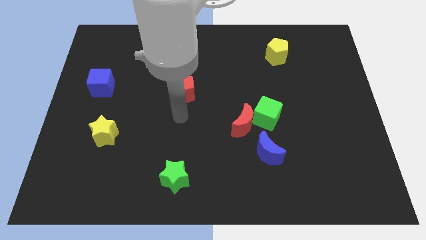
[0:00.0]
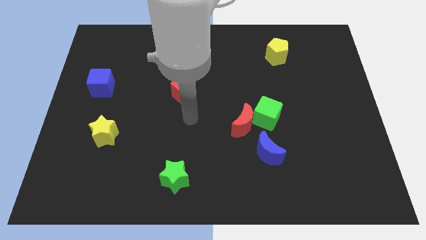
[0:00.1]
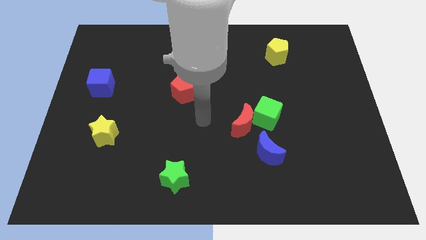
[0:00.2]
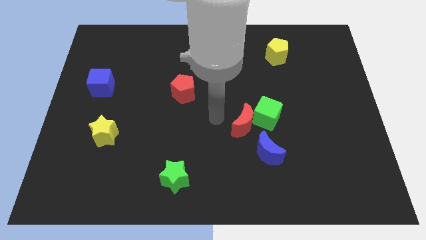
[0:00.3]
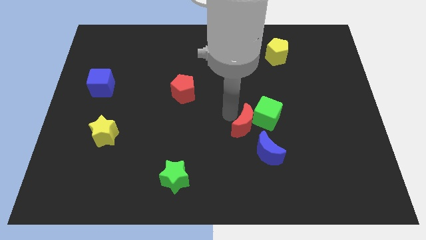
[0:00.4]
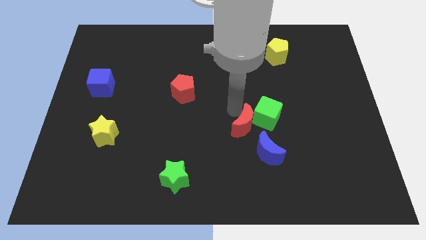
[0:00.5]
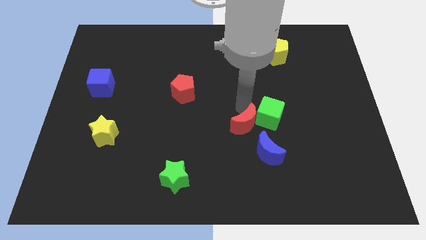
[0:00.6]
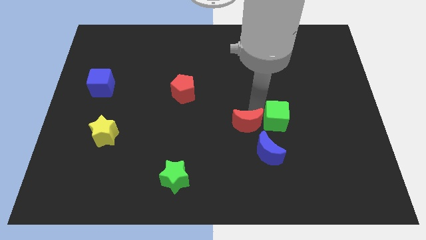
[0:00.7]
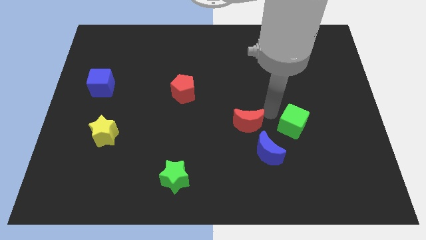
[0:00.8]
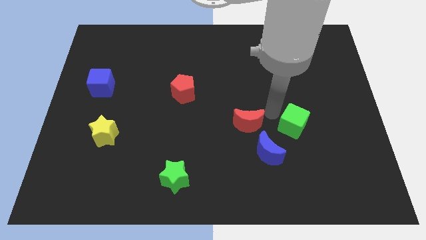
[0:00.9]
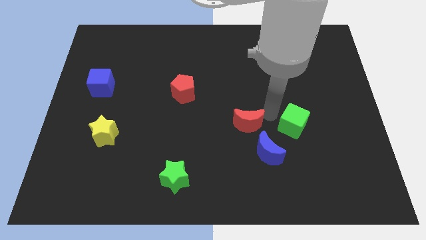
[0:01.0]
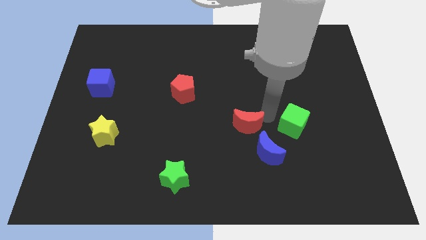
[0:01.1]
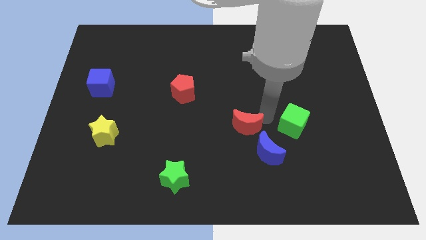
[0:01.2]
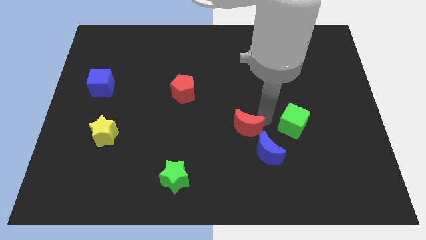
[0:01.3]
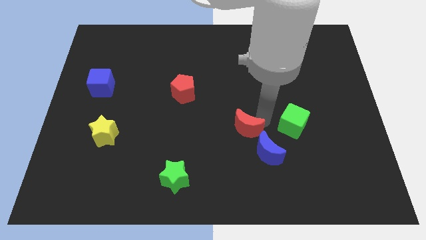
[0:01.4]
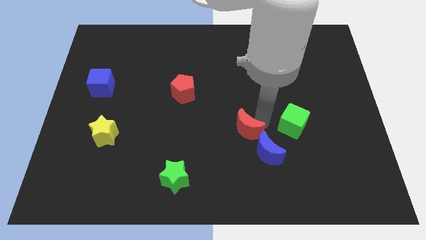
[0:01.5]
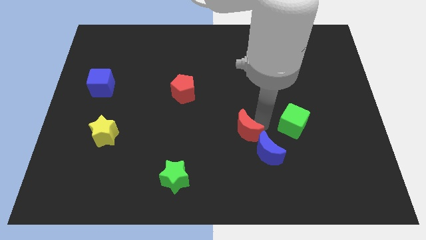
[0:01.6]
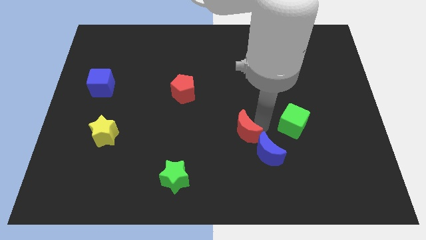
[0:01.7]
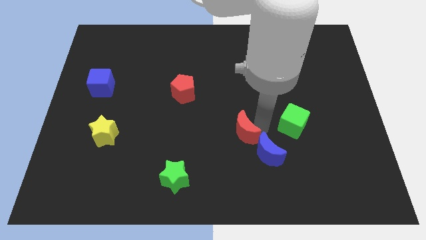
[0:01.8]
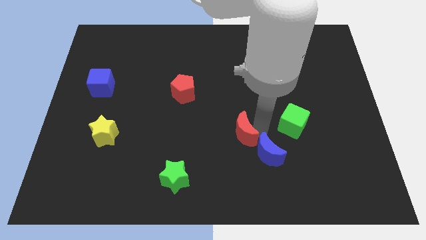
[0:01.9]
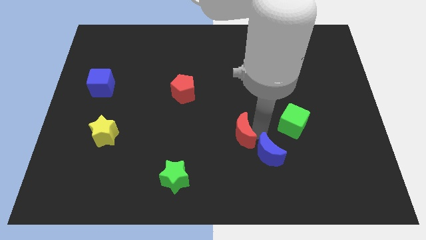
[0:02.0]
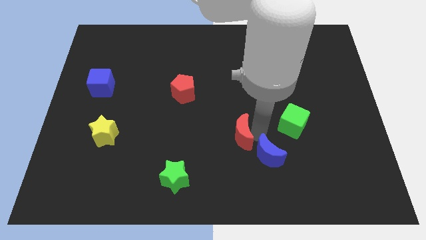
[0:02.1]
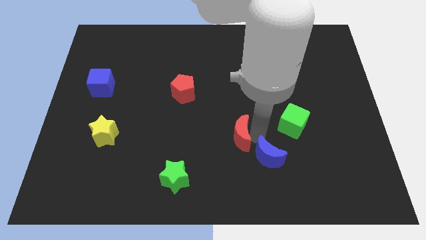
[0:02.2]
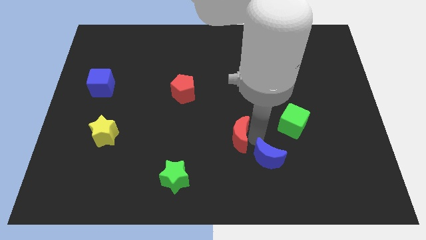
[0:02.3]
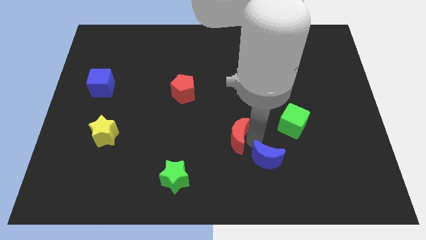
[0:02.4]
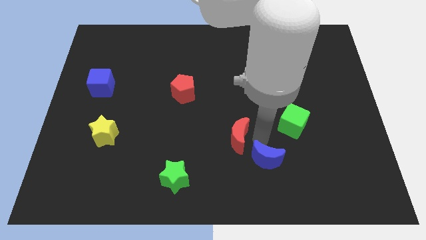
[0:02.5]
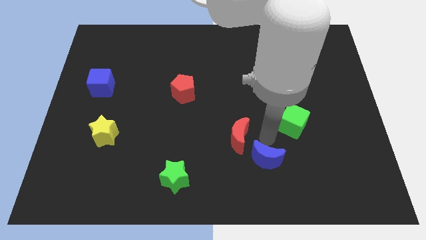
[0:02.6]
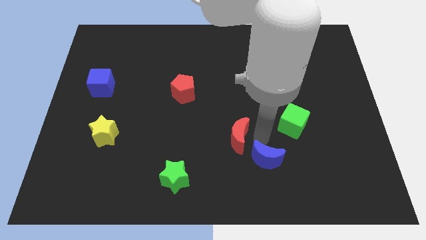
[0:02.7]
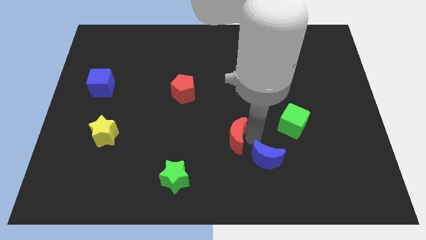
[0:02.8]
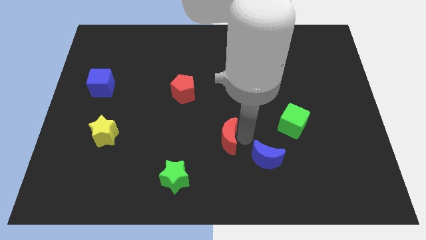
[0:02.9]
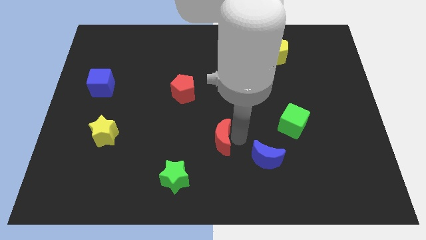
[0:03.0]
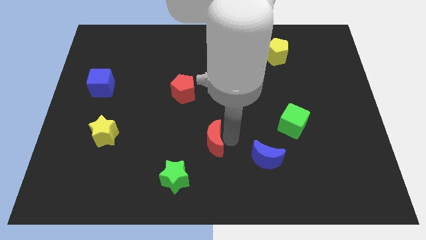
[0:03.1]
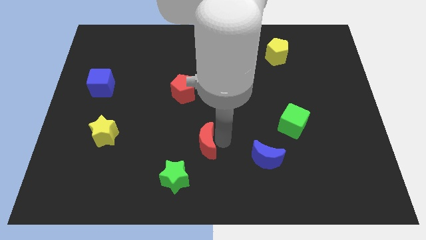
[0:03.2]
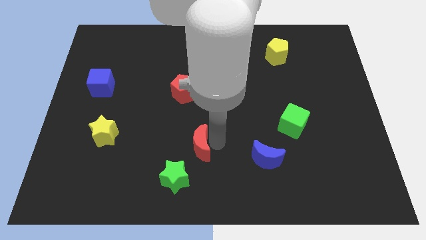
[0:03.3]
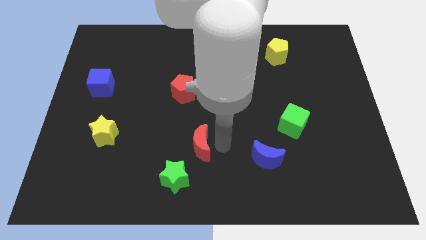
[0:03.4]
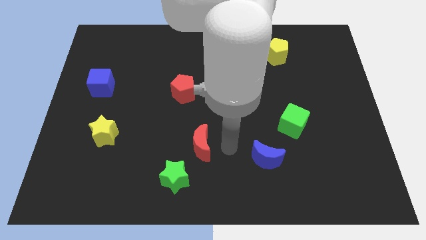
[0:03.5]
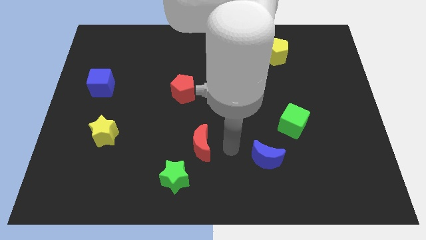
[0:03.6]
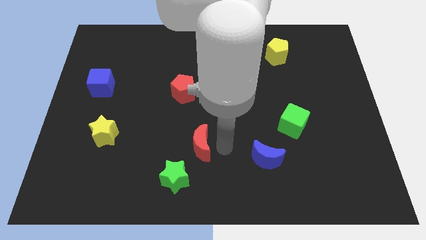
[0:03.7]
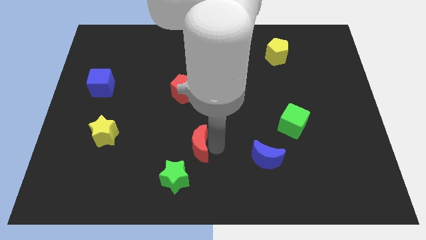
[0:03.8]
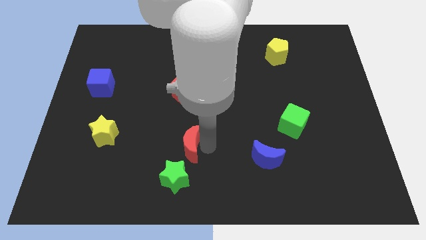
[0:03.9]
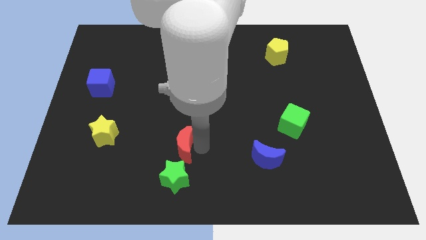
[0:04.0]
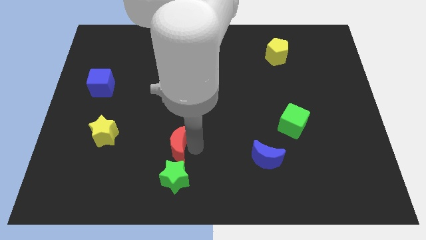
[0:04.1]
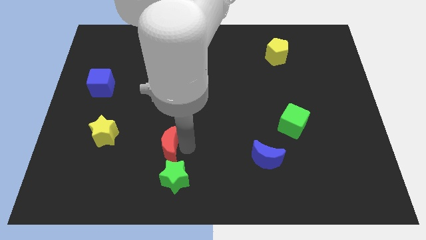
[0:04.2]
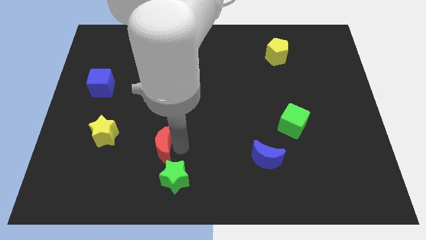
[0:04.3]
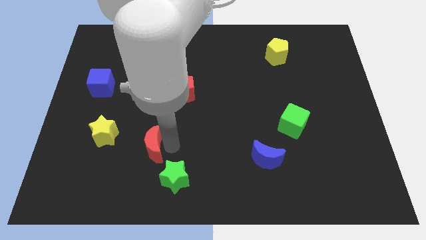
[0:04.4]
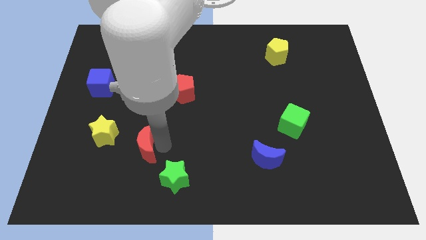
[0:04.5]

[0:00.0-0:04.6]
slide the red moon diagonally down and to the right of the yellow star

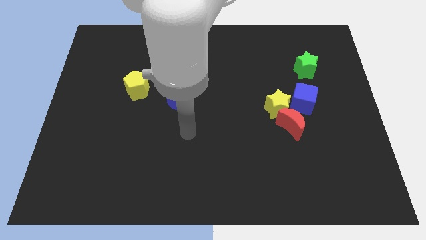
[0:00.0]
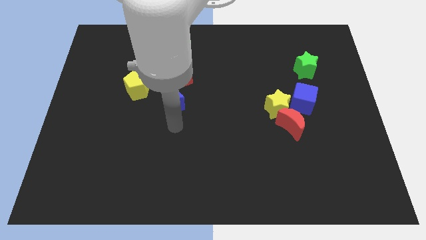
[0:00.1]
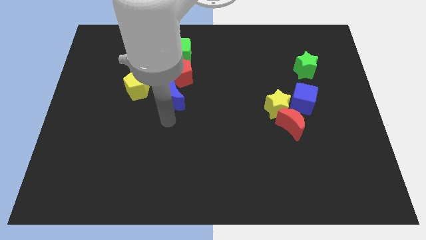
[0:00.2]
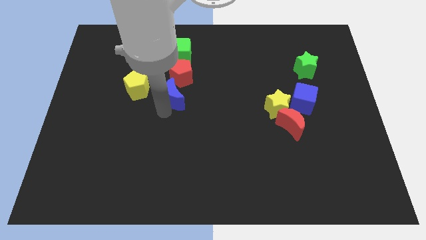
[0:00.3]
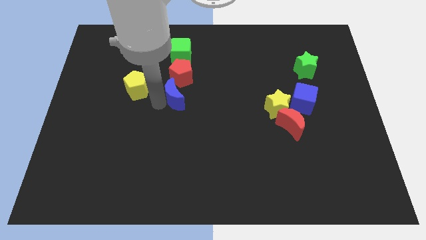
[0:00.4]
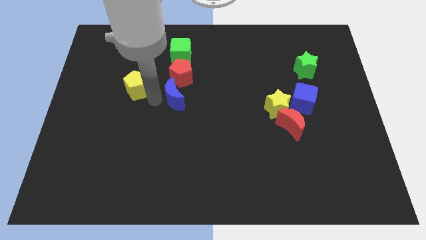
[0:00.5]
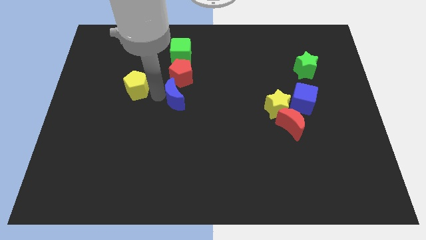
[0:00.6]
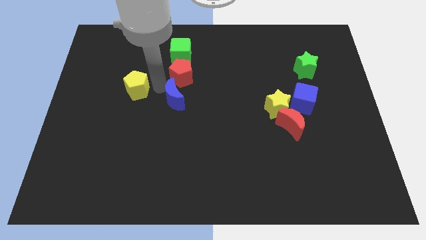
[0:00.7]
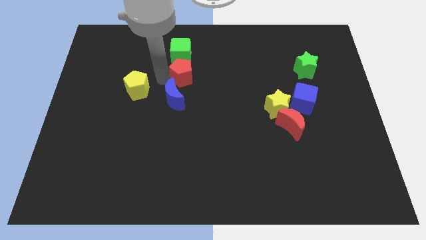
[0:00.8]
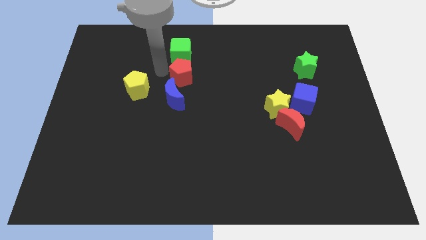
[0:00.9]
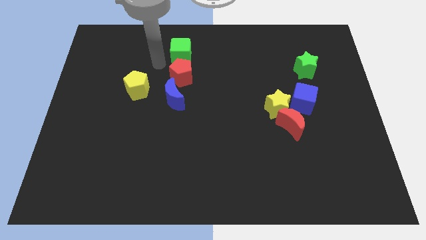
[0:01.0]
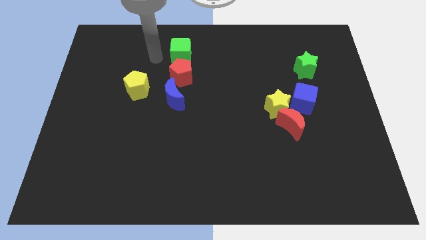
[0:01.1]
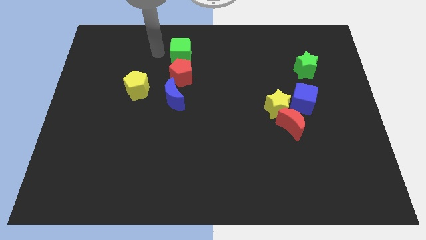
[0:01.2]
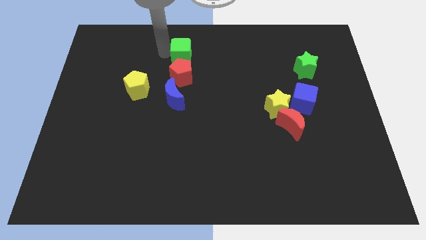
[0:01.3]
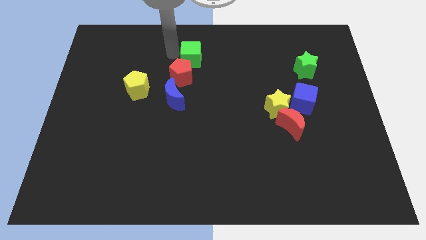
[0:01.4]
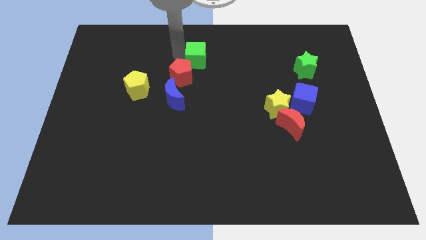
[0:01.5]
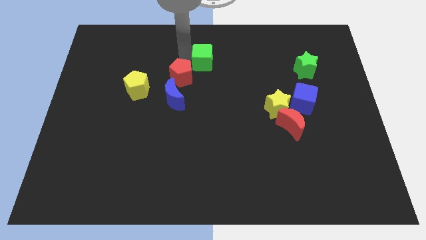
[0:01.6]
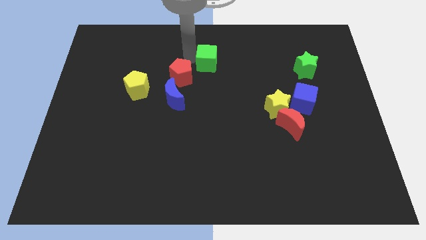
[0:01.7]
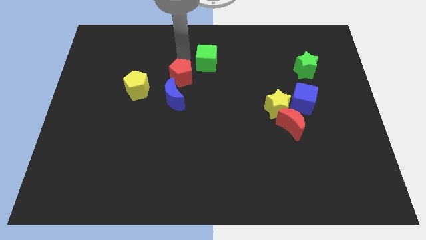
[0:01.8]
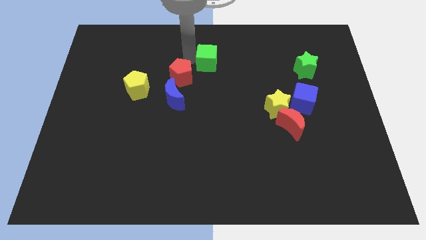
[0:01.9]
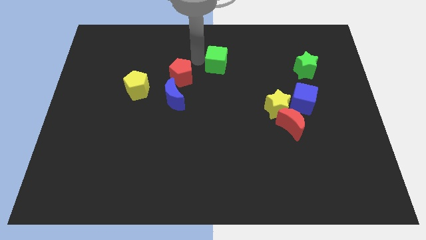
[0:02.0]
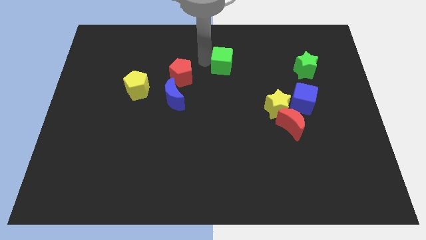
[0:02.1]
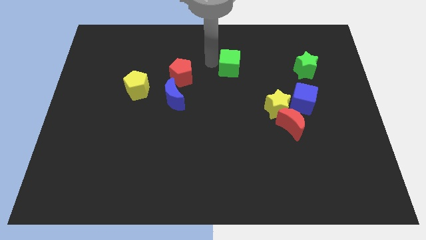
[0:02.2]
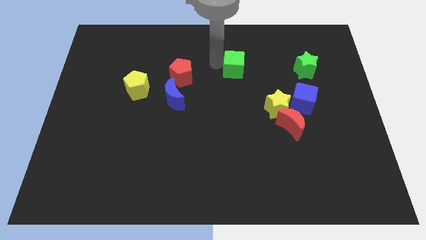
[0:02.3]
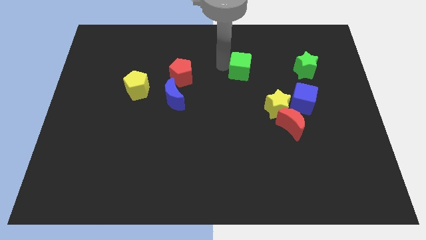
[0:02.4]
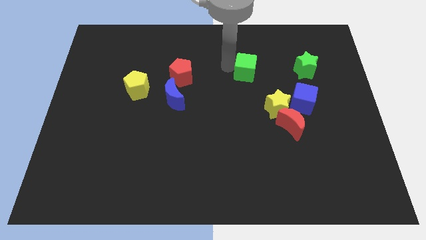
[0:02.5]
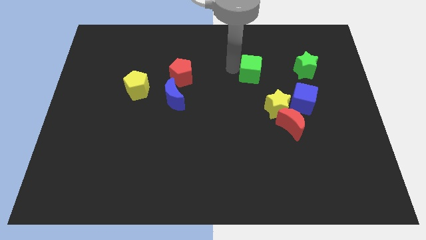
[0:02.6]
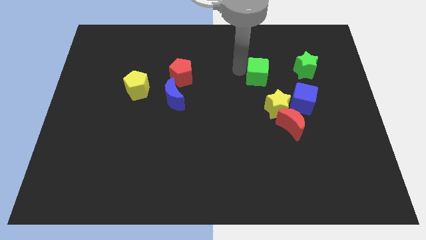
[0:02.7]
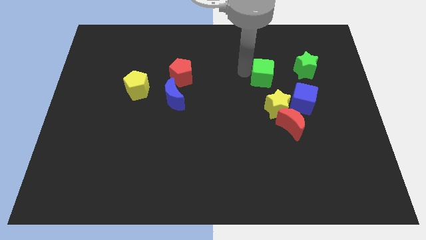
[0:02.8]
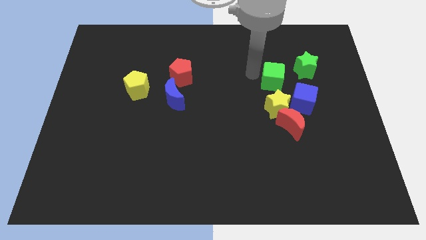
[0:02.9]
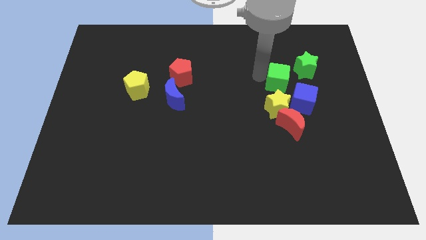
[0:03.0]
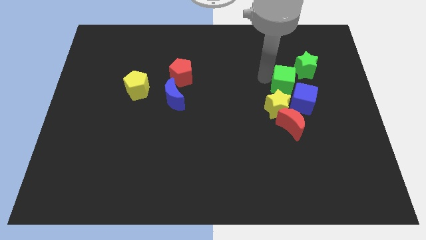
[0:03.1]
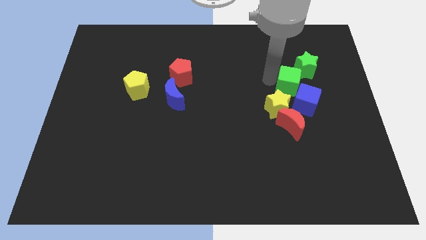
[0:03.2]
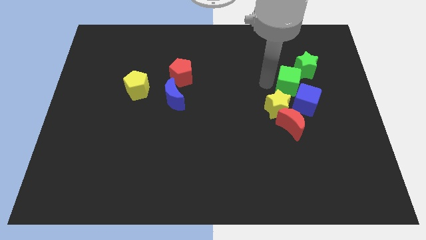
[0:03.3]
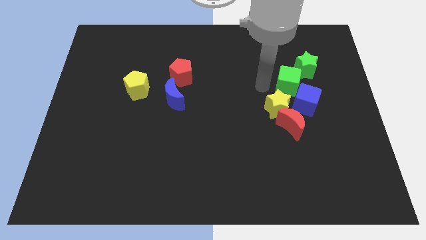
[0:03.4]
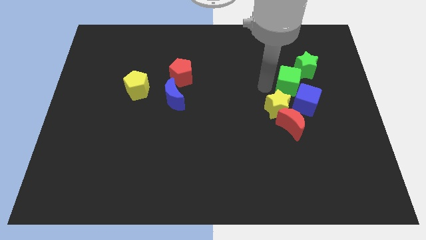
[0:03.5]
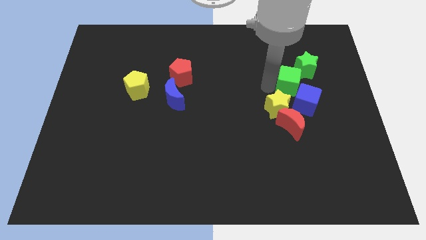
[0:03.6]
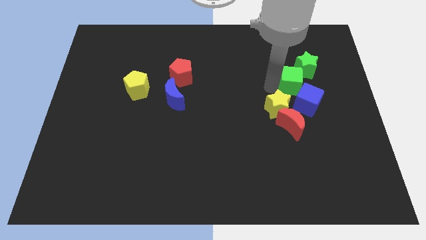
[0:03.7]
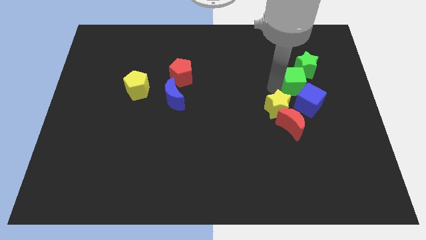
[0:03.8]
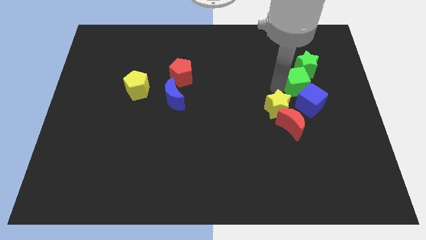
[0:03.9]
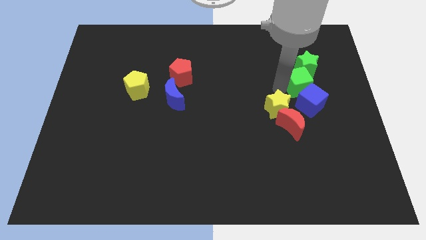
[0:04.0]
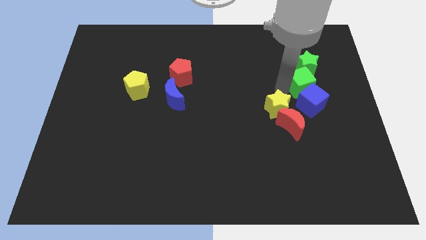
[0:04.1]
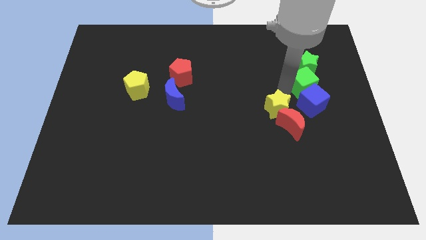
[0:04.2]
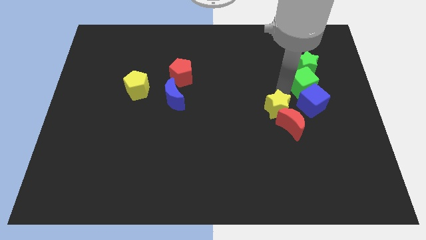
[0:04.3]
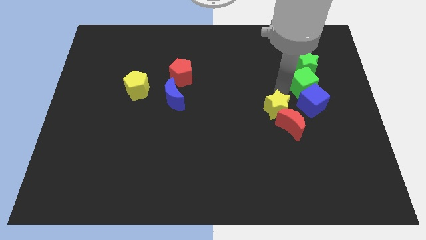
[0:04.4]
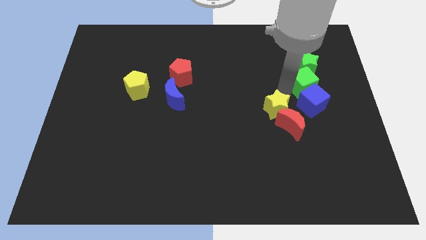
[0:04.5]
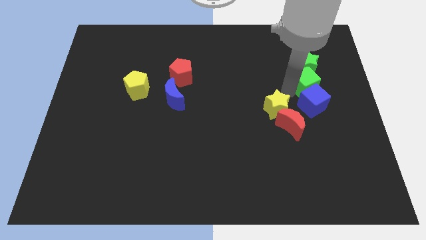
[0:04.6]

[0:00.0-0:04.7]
slide the green cube to the bottom right of the green star
